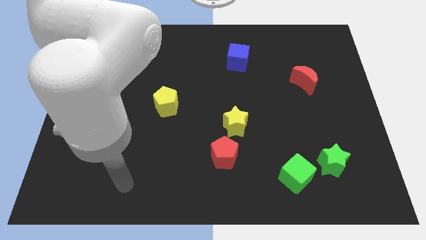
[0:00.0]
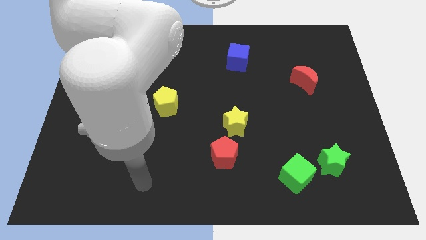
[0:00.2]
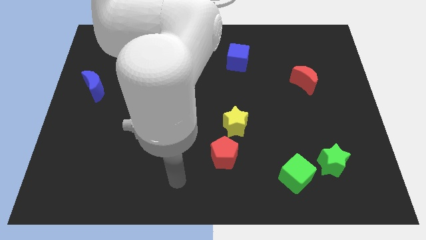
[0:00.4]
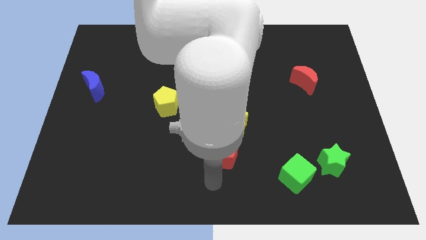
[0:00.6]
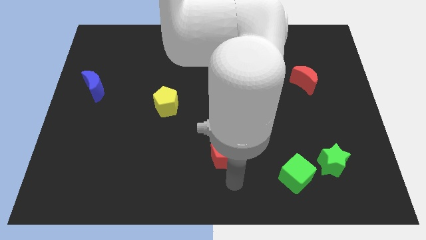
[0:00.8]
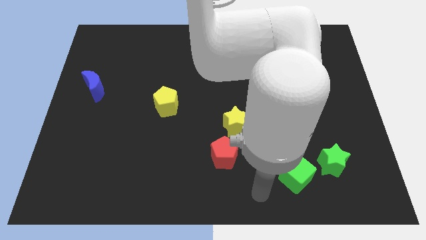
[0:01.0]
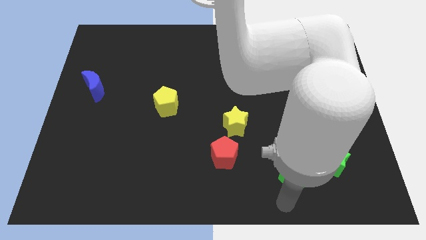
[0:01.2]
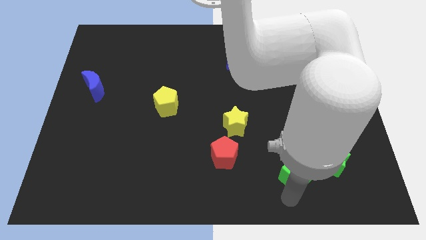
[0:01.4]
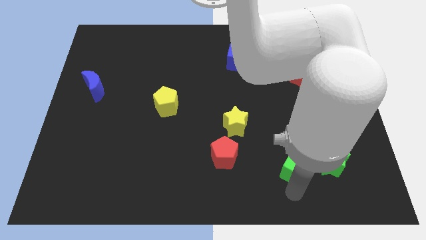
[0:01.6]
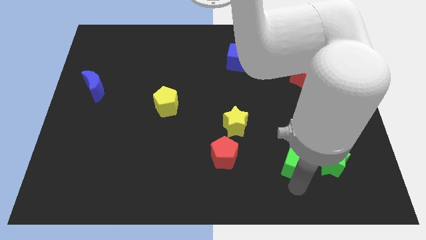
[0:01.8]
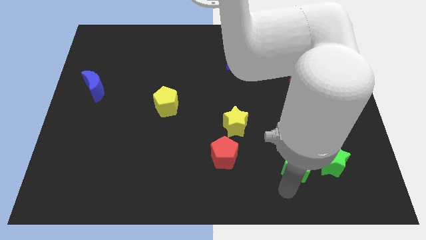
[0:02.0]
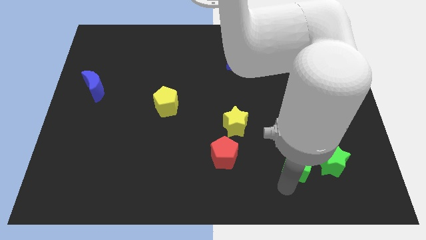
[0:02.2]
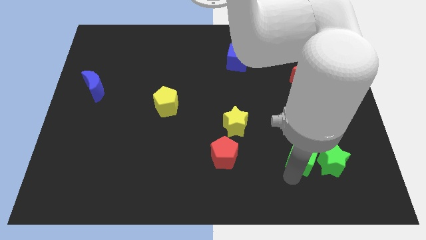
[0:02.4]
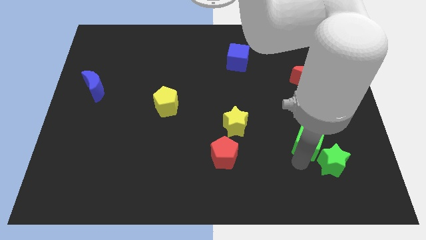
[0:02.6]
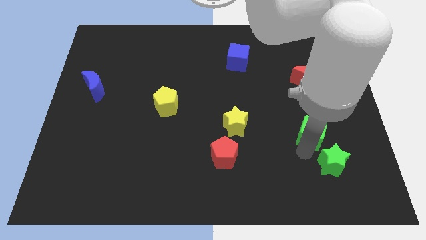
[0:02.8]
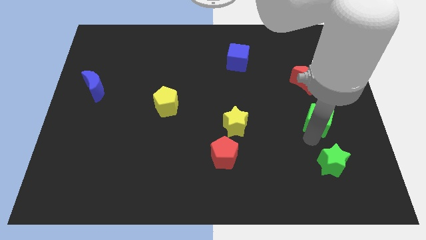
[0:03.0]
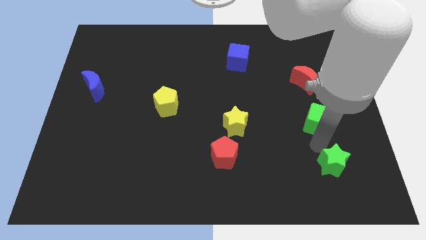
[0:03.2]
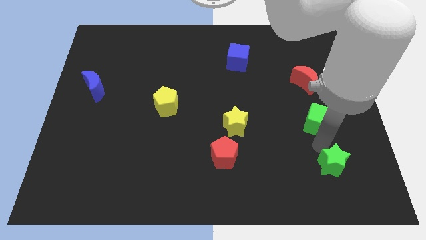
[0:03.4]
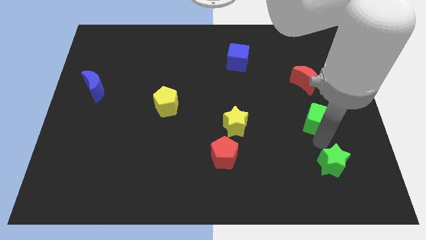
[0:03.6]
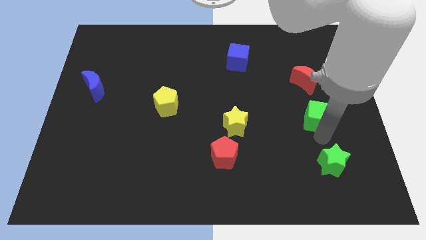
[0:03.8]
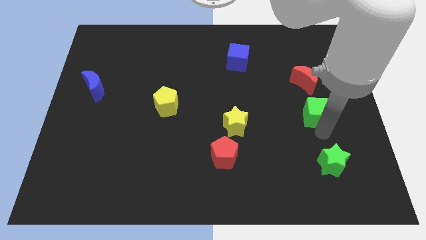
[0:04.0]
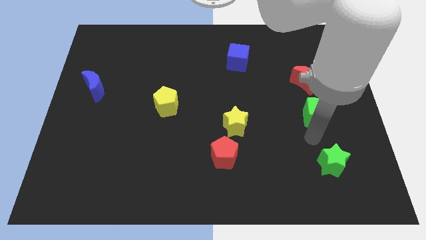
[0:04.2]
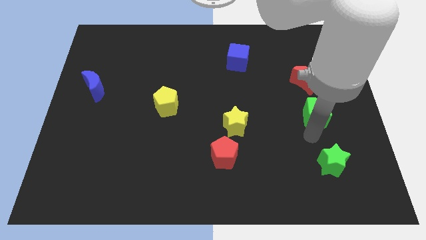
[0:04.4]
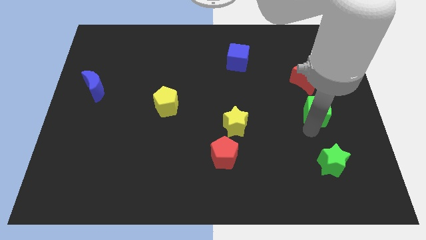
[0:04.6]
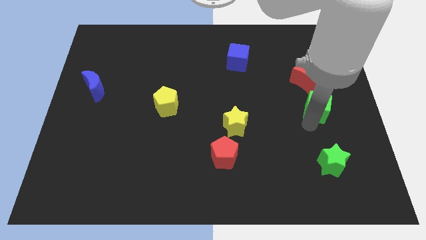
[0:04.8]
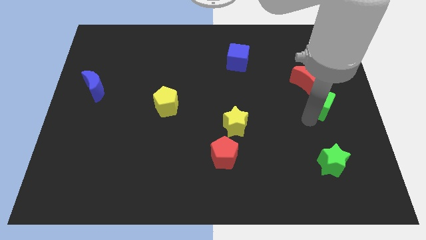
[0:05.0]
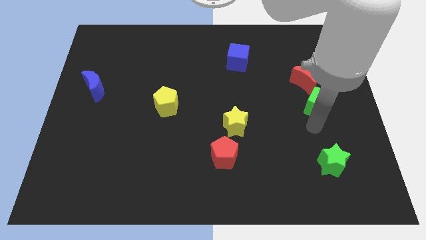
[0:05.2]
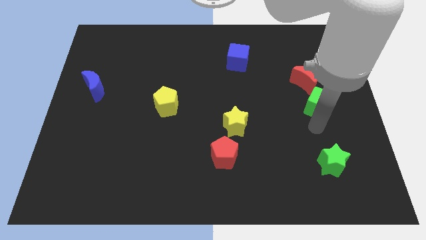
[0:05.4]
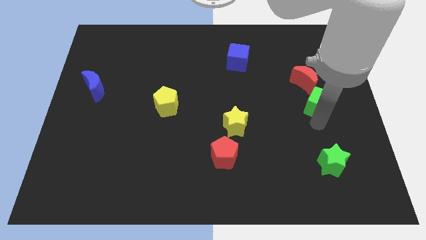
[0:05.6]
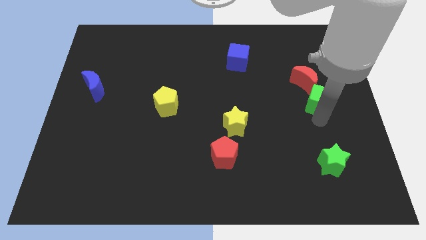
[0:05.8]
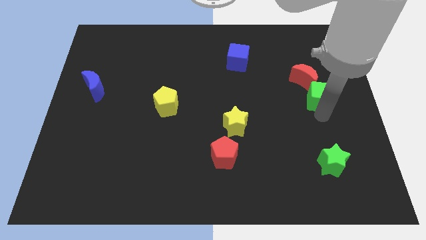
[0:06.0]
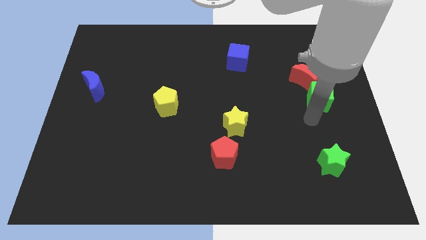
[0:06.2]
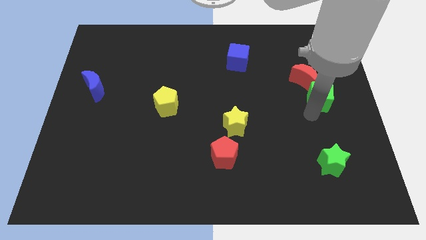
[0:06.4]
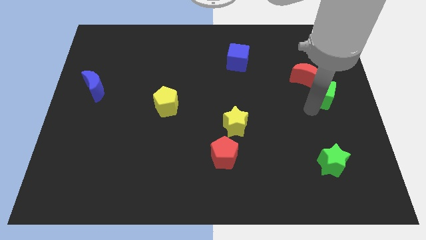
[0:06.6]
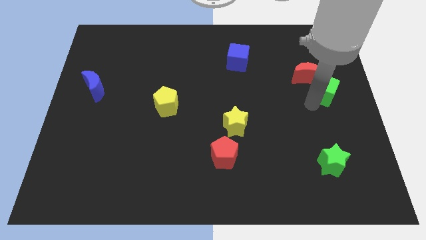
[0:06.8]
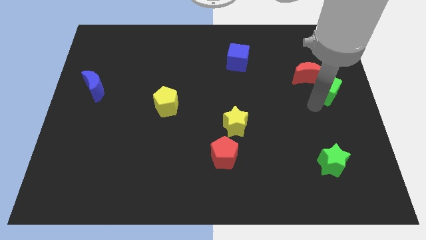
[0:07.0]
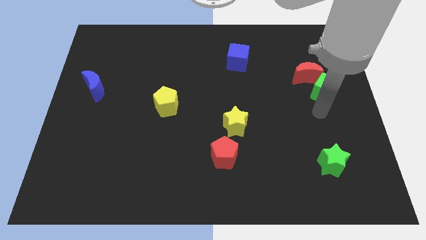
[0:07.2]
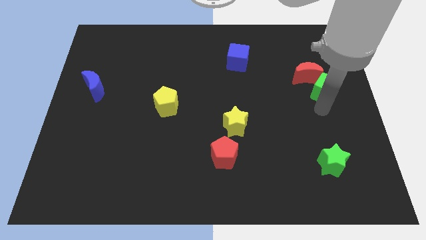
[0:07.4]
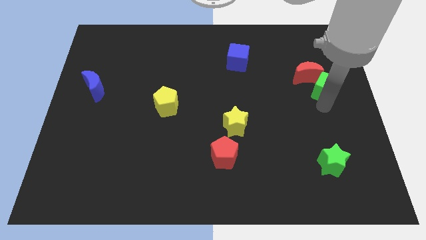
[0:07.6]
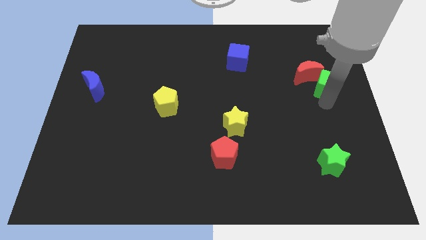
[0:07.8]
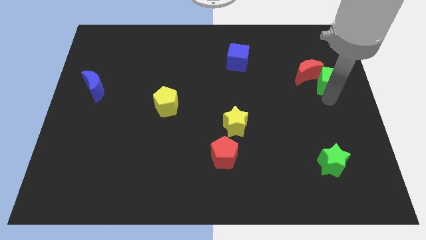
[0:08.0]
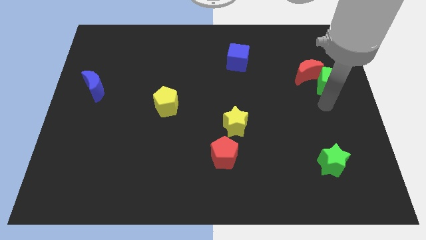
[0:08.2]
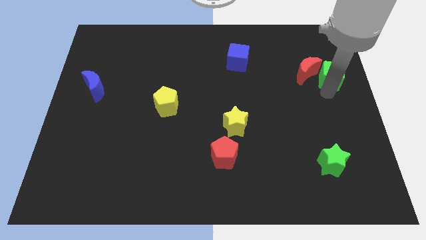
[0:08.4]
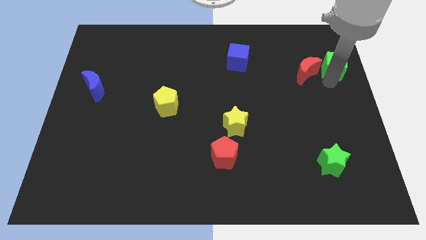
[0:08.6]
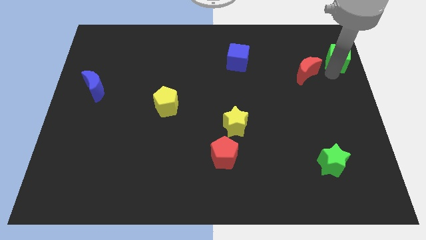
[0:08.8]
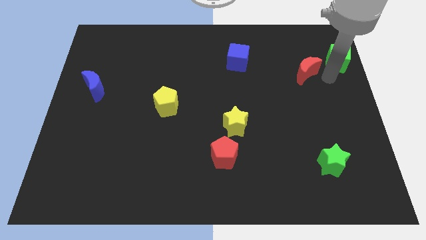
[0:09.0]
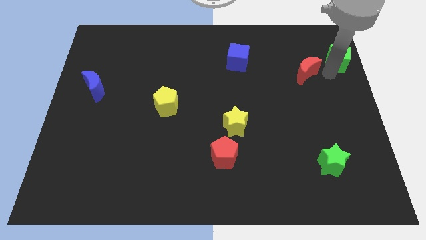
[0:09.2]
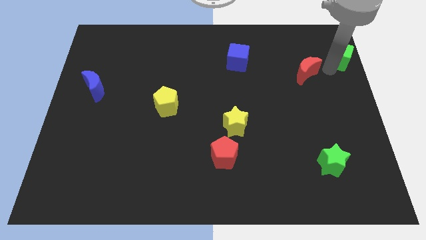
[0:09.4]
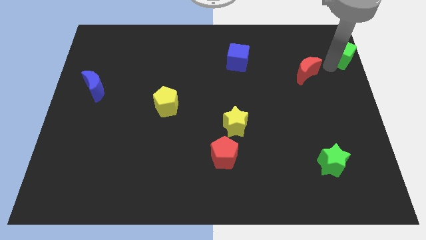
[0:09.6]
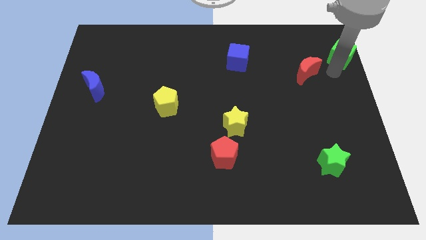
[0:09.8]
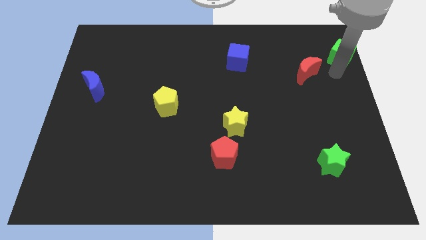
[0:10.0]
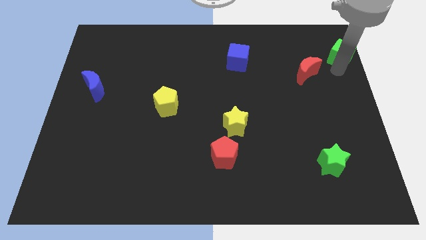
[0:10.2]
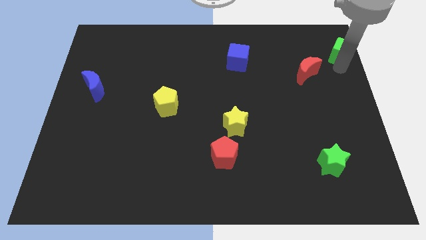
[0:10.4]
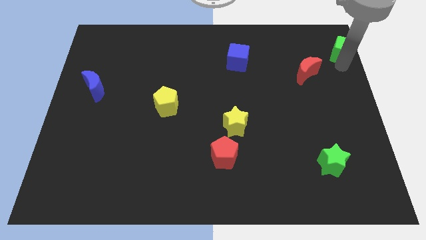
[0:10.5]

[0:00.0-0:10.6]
put the green cube to the top right corner

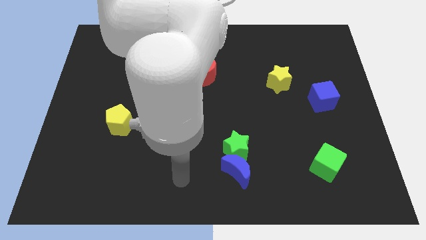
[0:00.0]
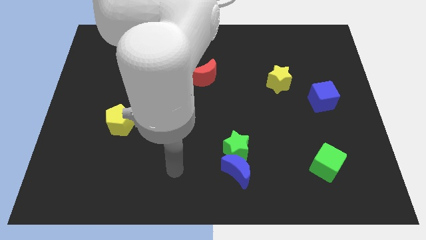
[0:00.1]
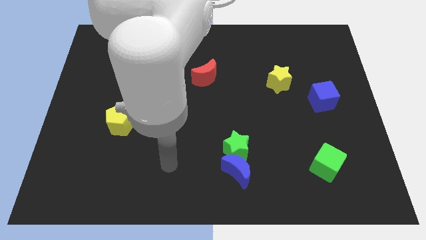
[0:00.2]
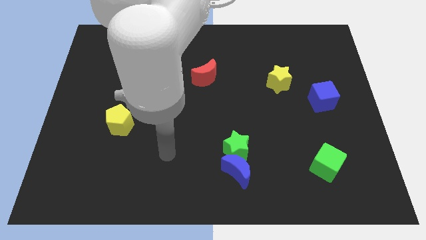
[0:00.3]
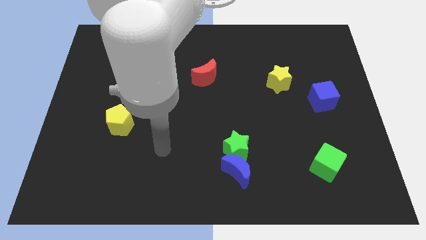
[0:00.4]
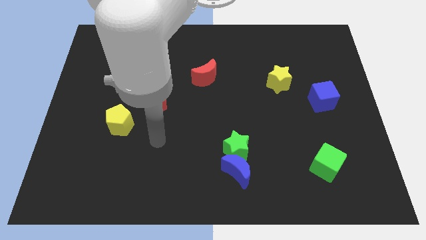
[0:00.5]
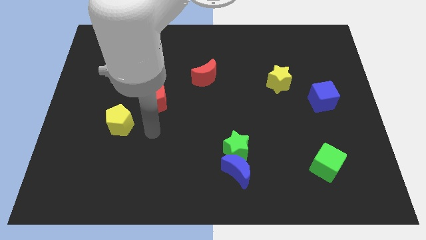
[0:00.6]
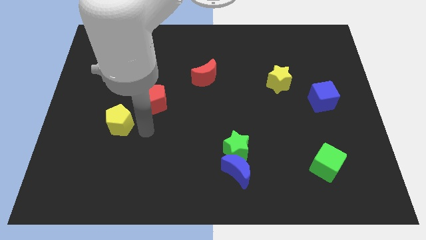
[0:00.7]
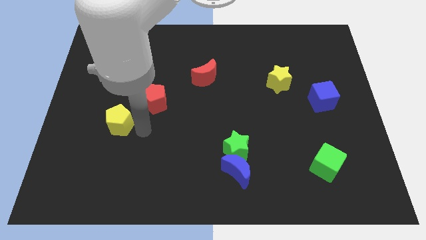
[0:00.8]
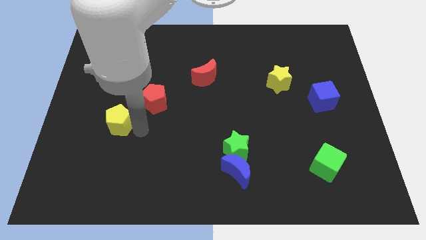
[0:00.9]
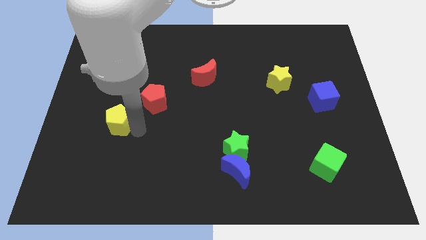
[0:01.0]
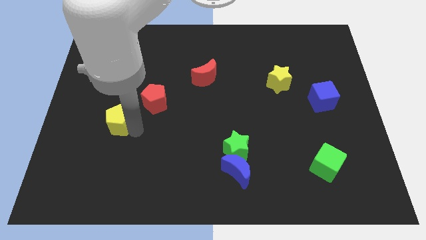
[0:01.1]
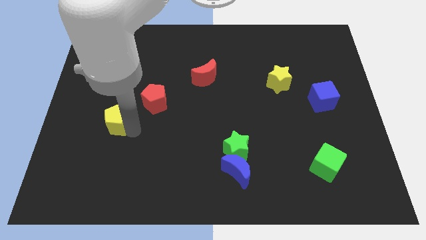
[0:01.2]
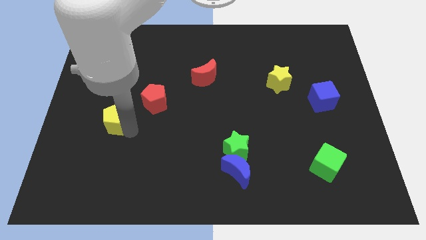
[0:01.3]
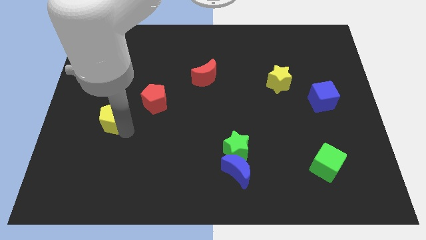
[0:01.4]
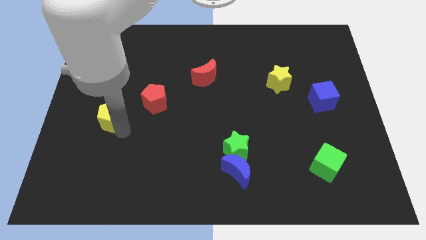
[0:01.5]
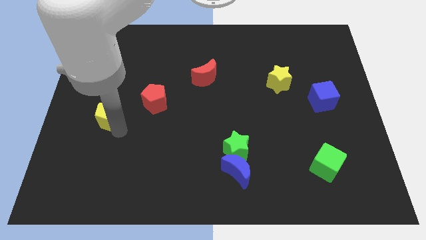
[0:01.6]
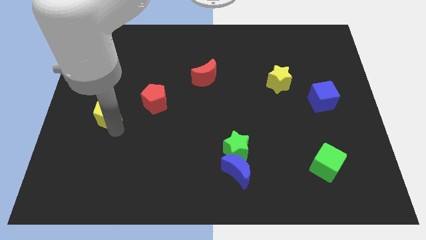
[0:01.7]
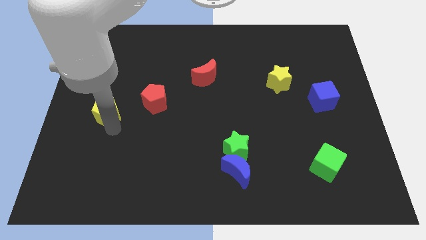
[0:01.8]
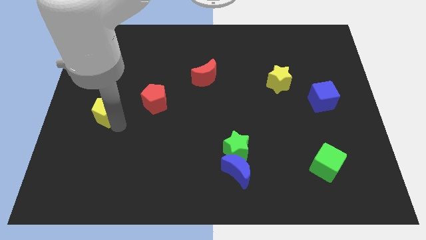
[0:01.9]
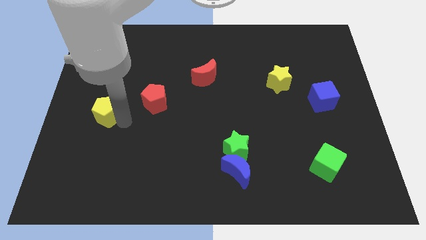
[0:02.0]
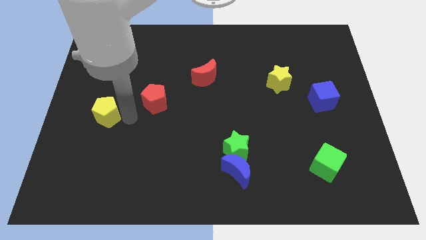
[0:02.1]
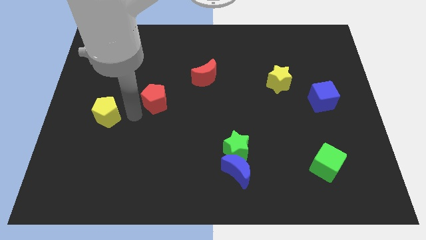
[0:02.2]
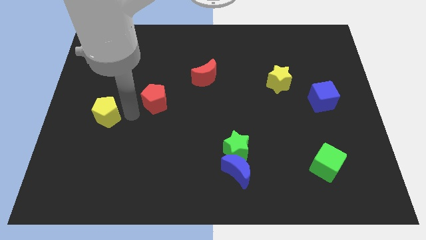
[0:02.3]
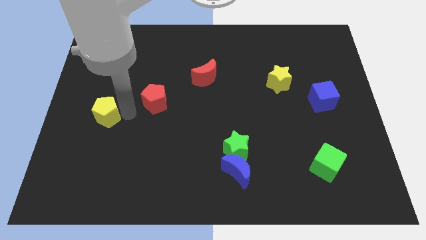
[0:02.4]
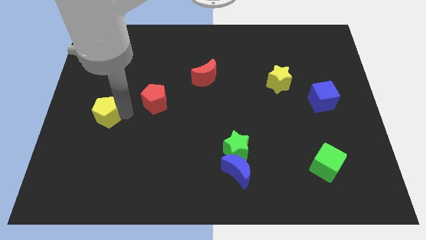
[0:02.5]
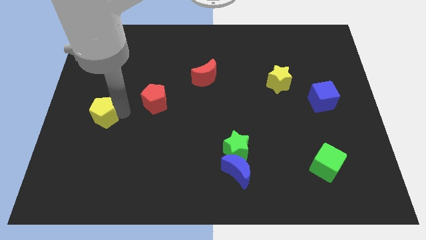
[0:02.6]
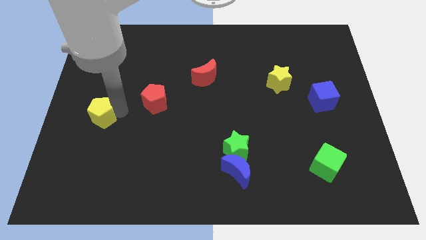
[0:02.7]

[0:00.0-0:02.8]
put the yellow pentagon to the left side of the board
